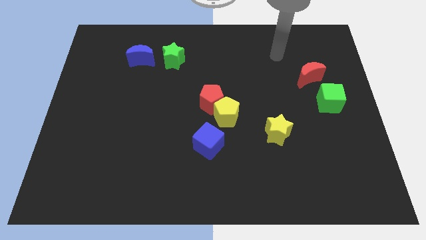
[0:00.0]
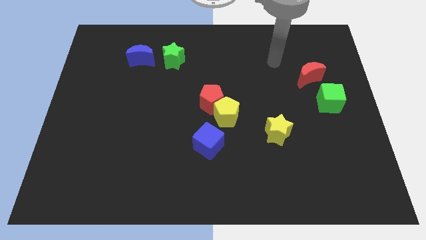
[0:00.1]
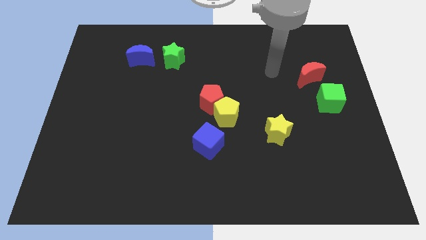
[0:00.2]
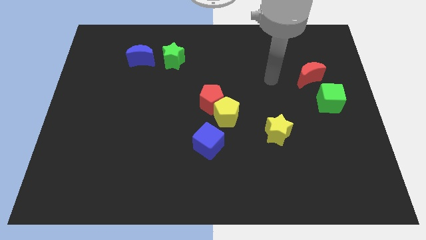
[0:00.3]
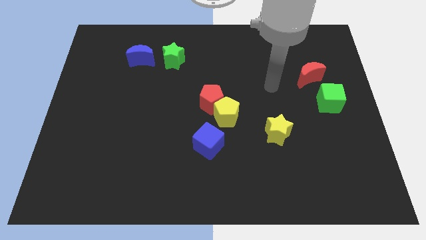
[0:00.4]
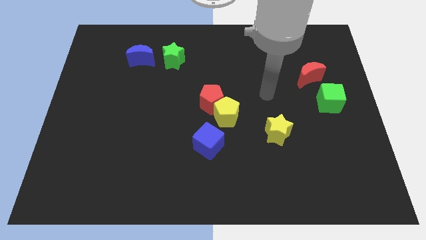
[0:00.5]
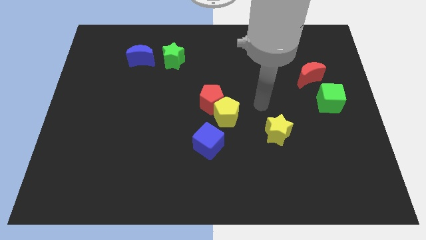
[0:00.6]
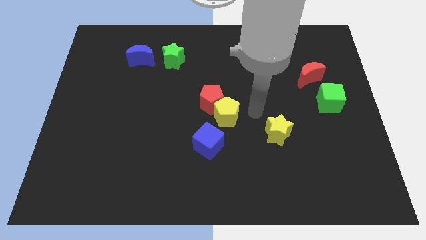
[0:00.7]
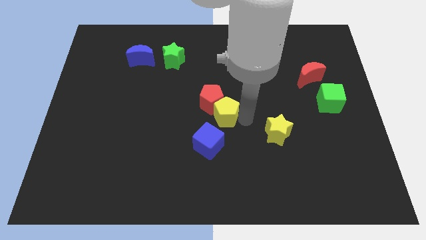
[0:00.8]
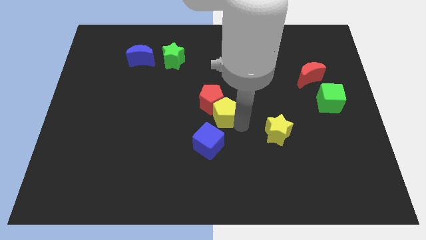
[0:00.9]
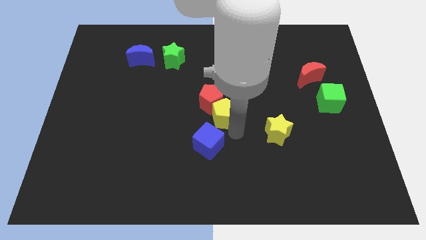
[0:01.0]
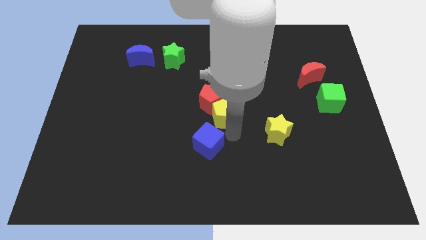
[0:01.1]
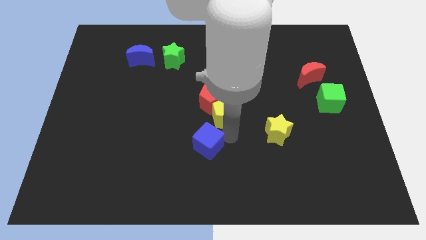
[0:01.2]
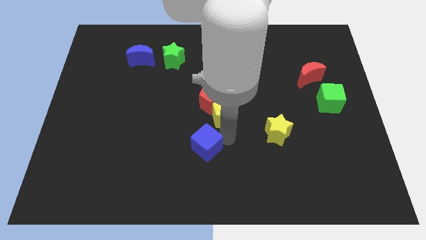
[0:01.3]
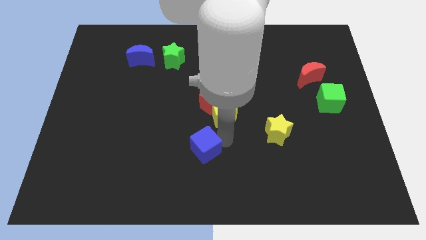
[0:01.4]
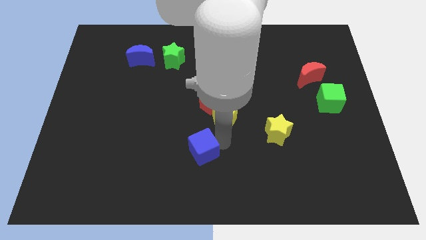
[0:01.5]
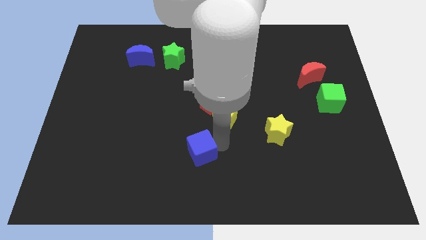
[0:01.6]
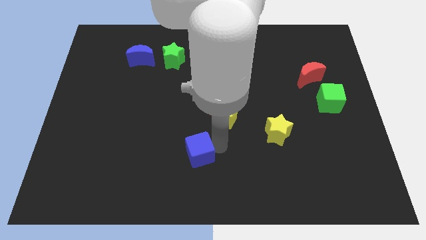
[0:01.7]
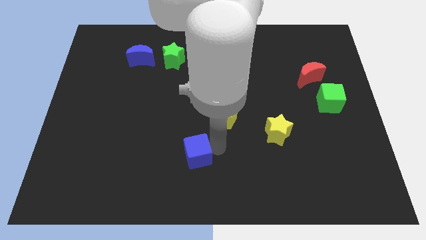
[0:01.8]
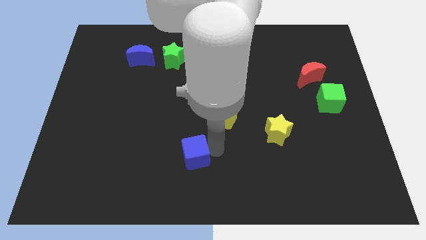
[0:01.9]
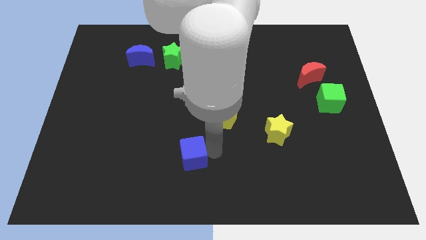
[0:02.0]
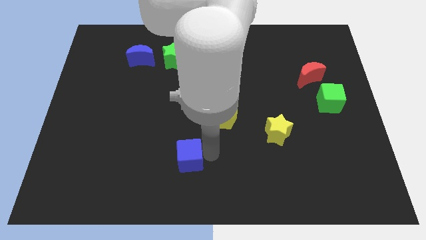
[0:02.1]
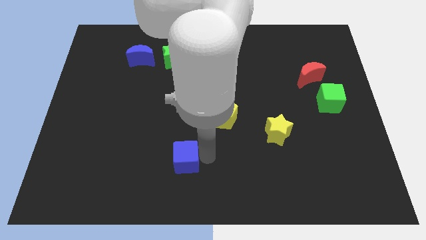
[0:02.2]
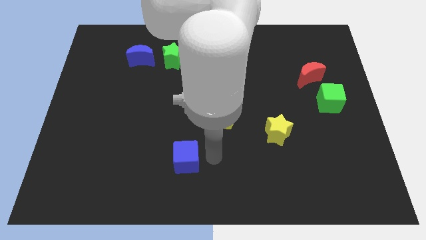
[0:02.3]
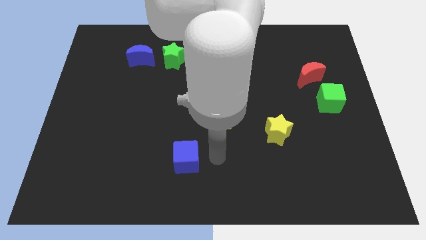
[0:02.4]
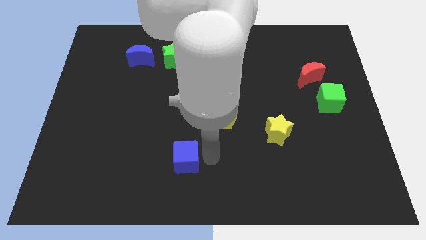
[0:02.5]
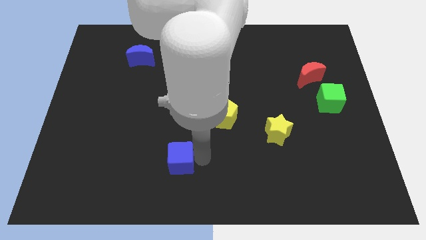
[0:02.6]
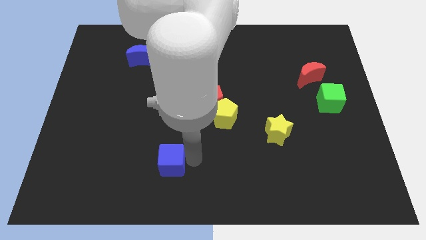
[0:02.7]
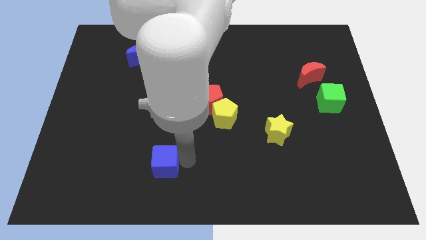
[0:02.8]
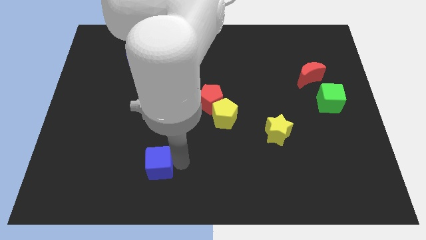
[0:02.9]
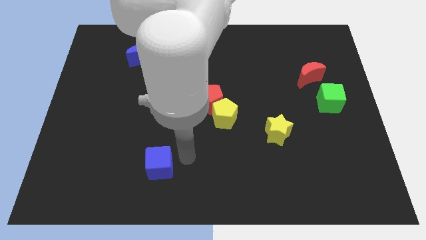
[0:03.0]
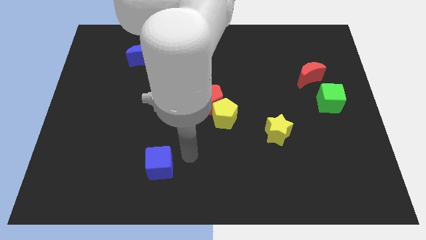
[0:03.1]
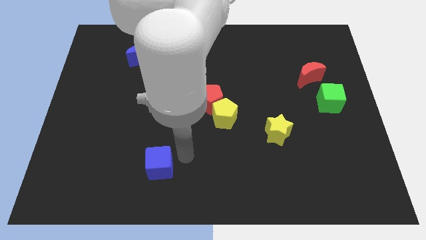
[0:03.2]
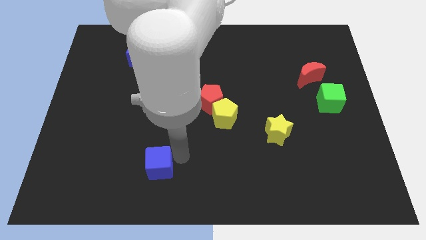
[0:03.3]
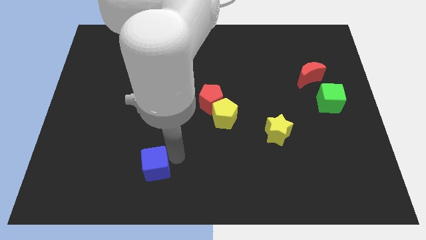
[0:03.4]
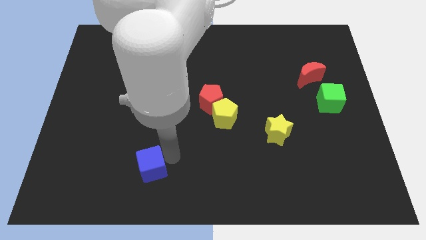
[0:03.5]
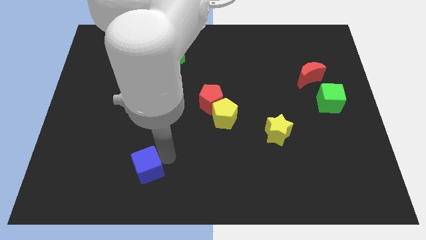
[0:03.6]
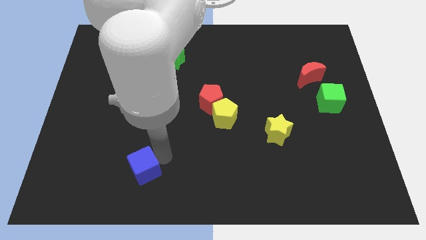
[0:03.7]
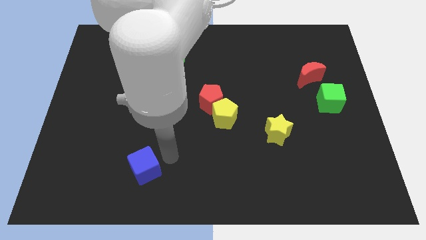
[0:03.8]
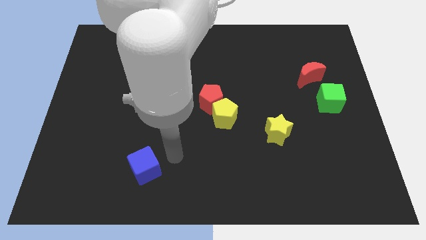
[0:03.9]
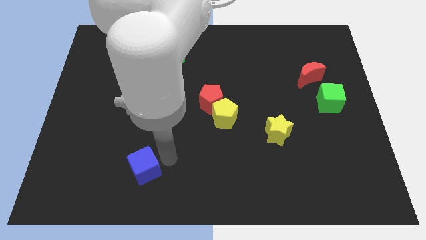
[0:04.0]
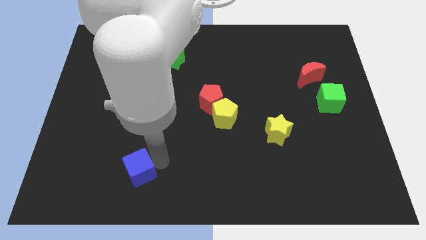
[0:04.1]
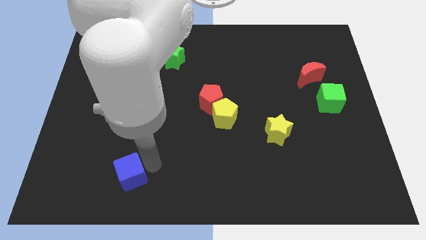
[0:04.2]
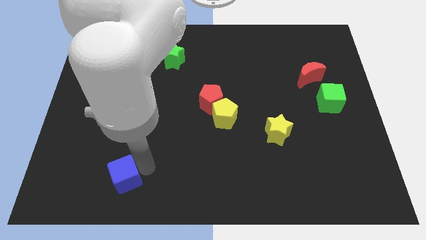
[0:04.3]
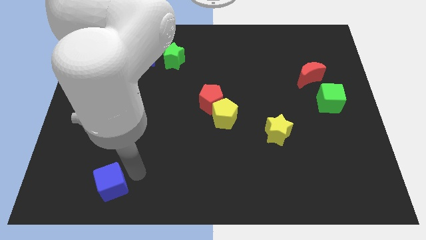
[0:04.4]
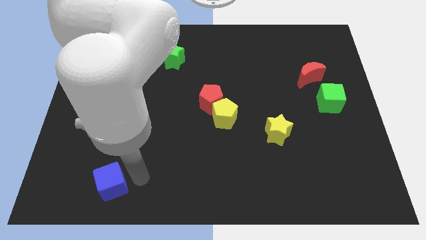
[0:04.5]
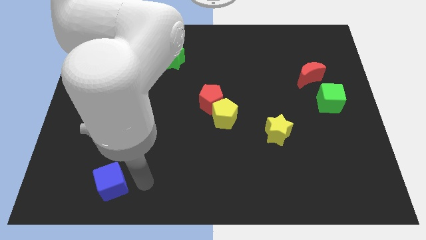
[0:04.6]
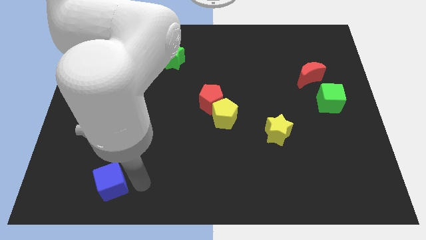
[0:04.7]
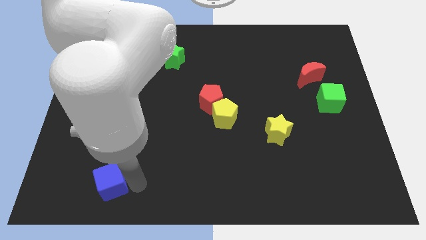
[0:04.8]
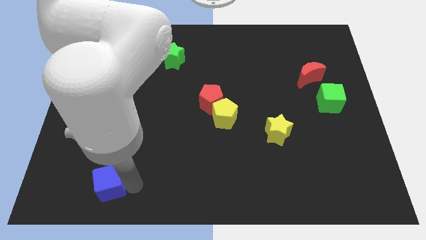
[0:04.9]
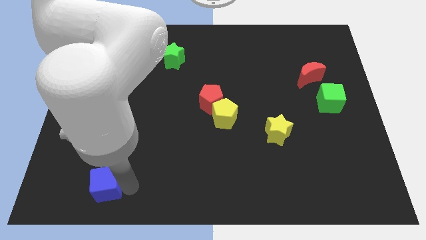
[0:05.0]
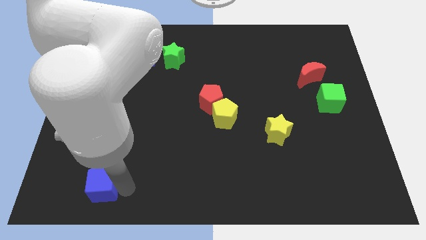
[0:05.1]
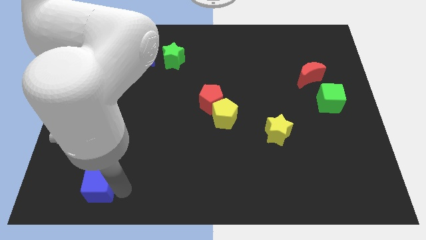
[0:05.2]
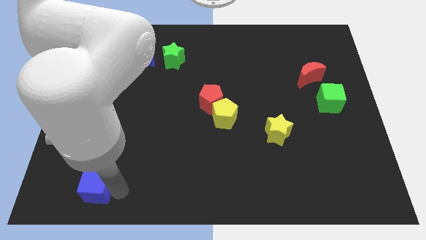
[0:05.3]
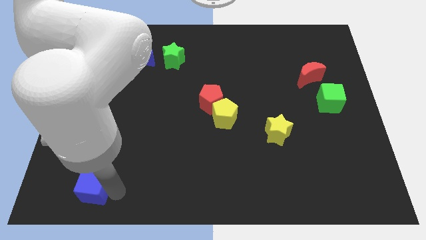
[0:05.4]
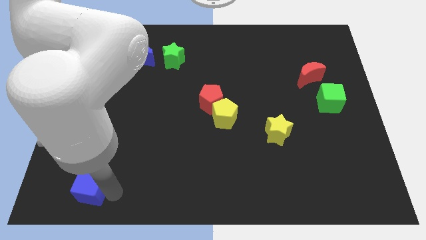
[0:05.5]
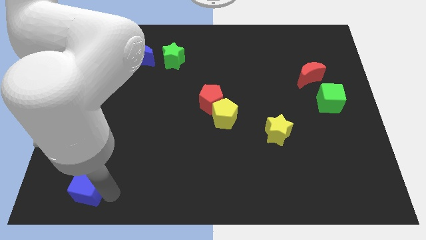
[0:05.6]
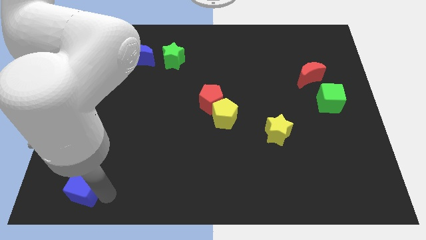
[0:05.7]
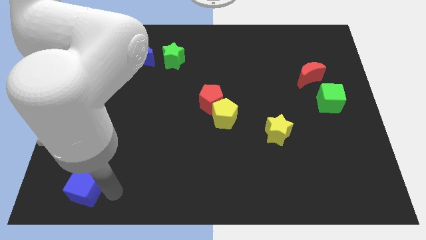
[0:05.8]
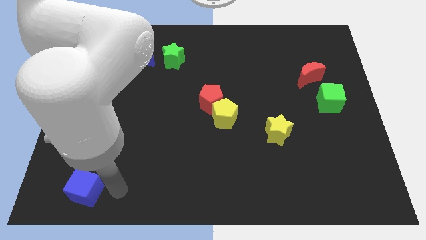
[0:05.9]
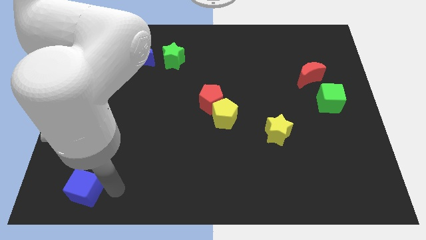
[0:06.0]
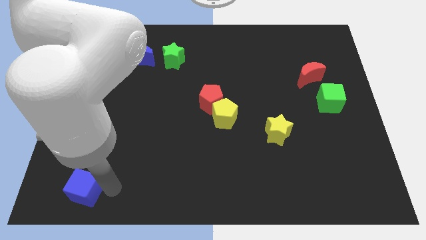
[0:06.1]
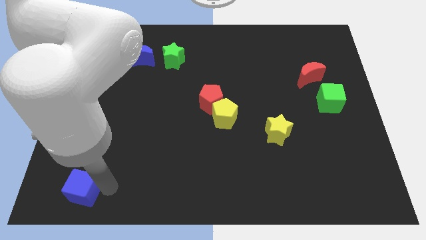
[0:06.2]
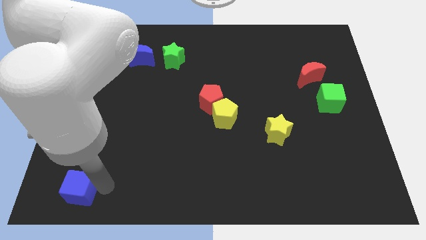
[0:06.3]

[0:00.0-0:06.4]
move the blue cube to the bottom left
